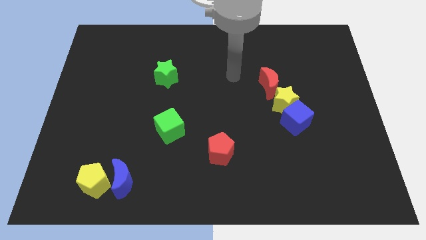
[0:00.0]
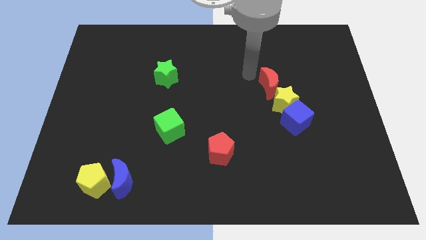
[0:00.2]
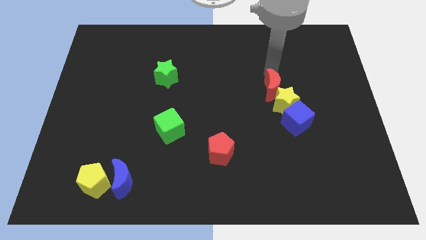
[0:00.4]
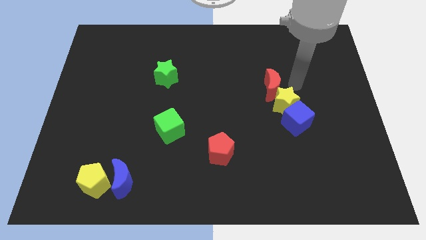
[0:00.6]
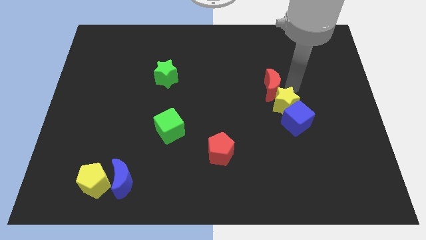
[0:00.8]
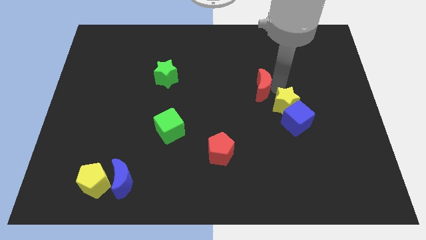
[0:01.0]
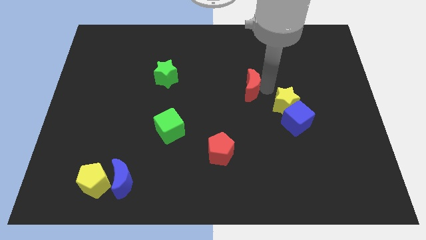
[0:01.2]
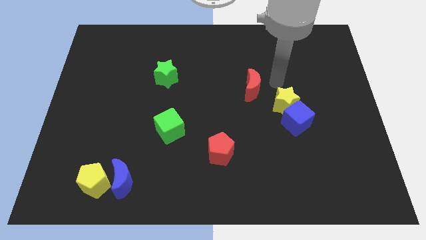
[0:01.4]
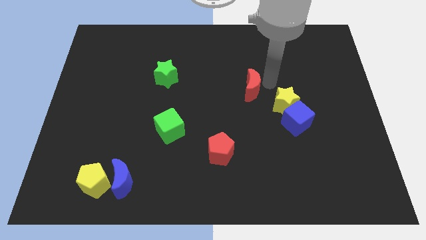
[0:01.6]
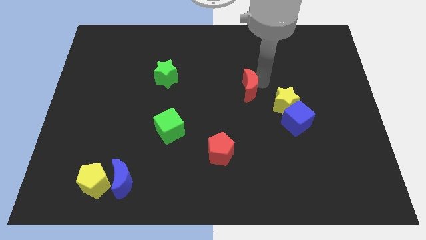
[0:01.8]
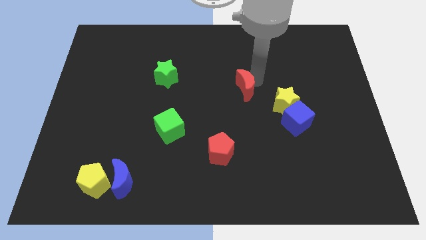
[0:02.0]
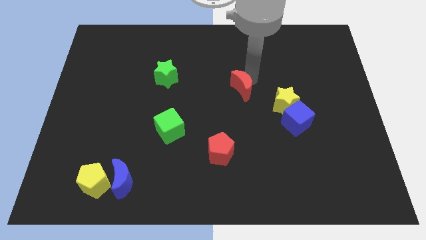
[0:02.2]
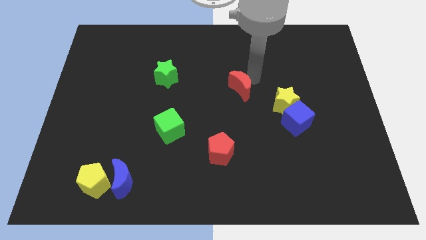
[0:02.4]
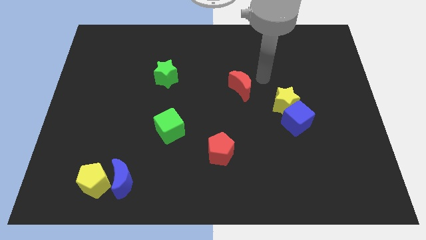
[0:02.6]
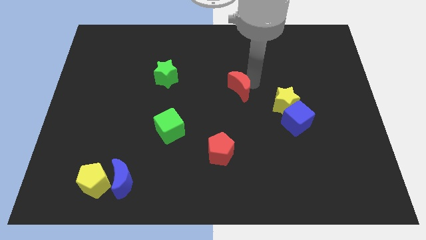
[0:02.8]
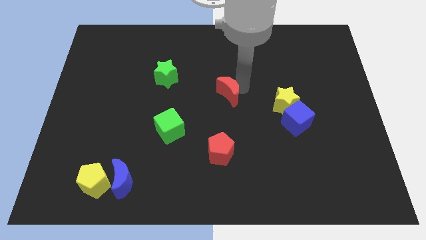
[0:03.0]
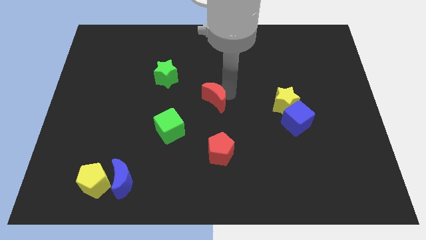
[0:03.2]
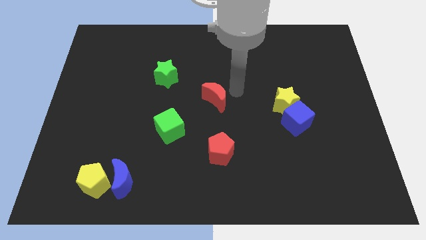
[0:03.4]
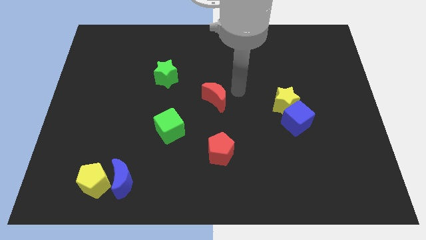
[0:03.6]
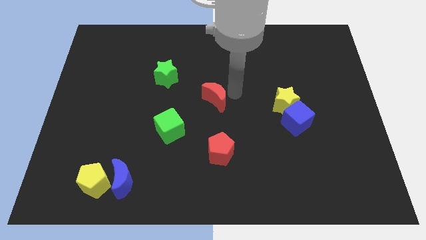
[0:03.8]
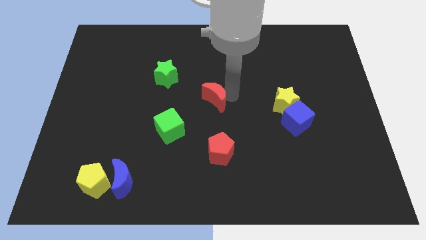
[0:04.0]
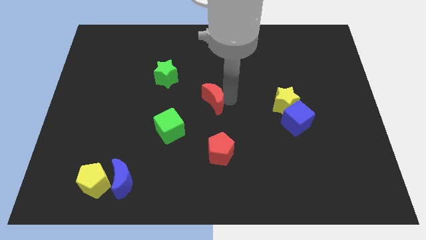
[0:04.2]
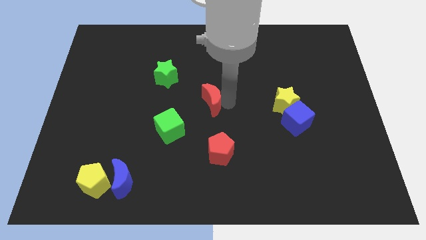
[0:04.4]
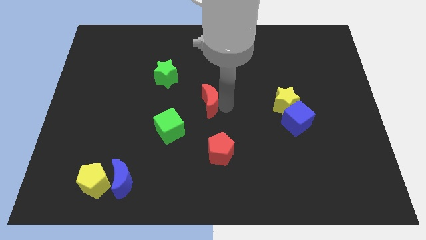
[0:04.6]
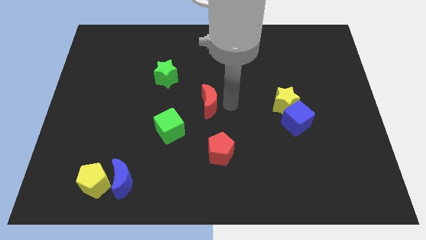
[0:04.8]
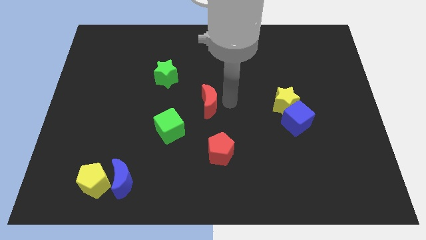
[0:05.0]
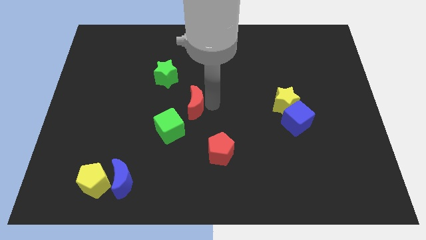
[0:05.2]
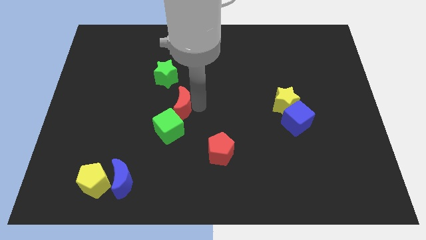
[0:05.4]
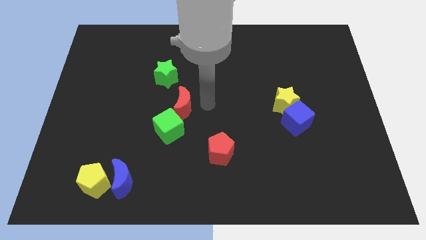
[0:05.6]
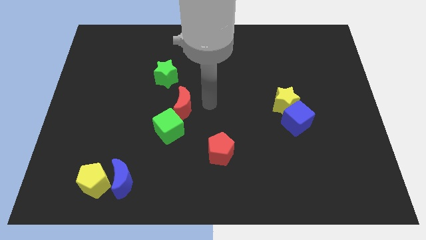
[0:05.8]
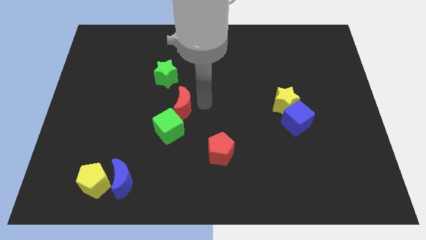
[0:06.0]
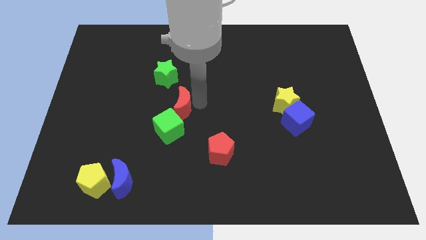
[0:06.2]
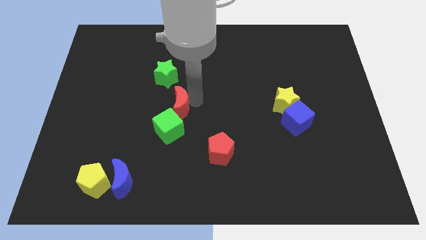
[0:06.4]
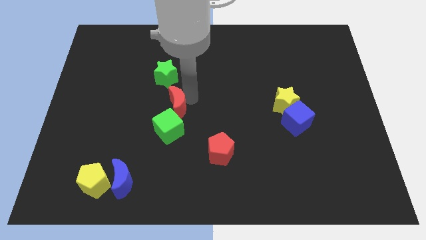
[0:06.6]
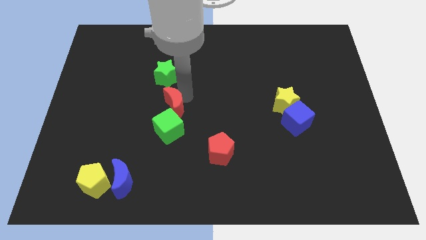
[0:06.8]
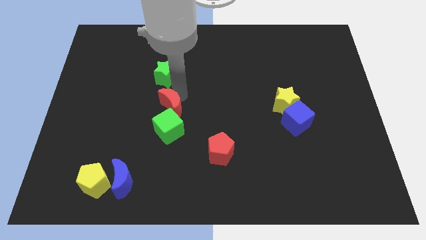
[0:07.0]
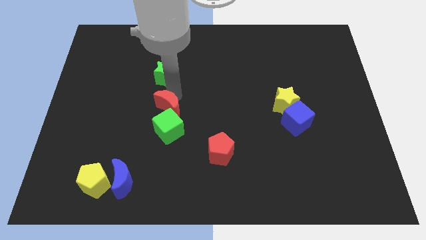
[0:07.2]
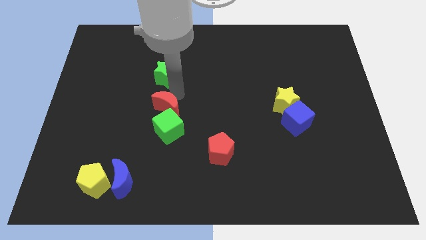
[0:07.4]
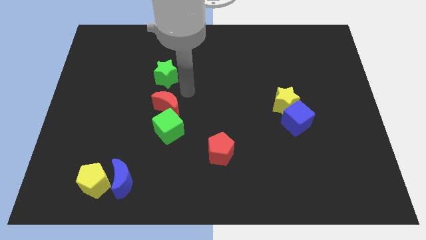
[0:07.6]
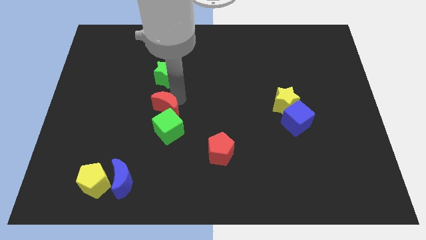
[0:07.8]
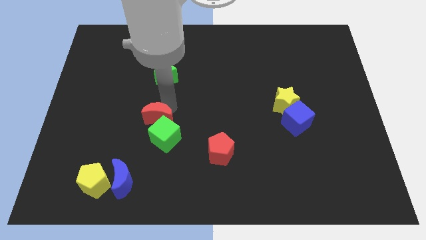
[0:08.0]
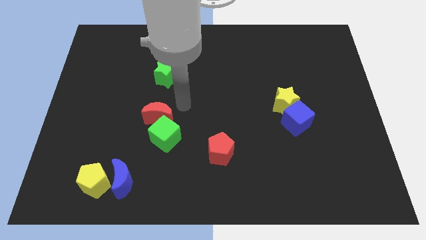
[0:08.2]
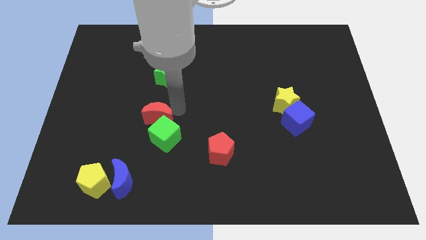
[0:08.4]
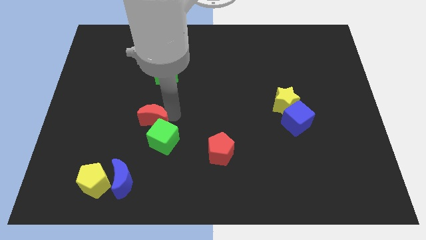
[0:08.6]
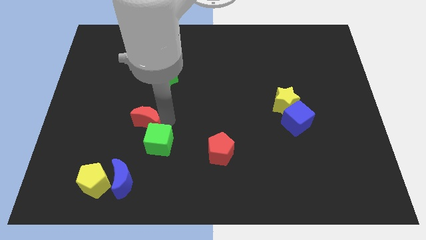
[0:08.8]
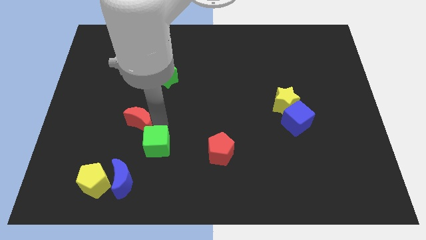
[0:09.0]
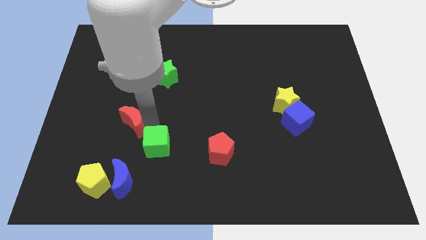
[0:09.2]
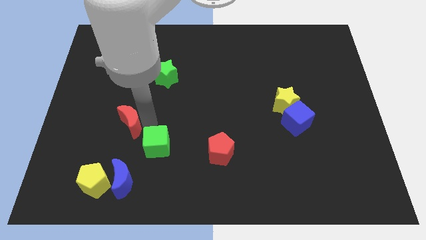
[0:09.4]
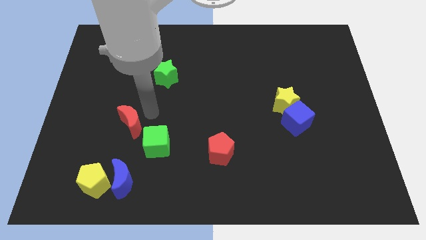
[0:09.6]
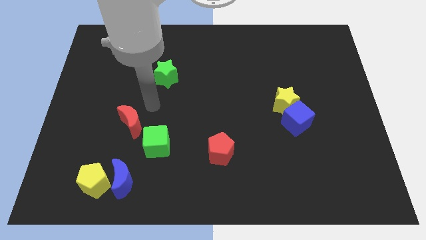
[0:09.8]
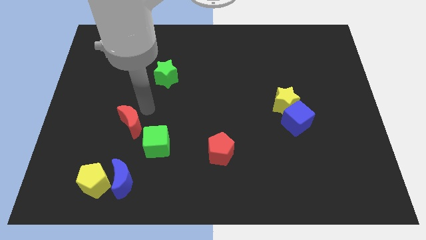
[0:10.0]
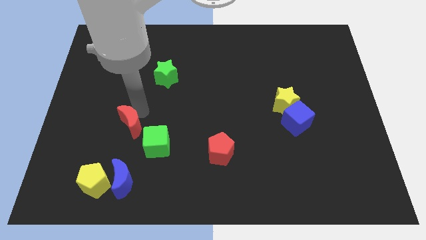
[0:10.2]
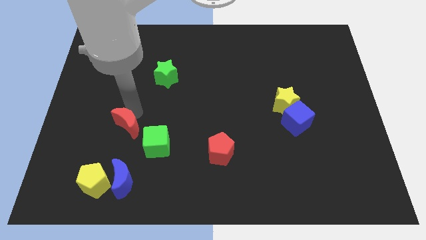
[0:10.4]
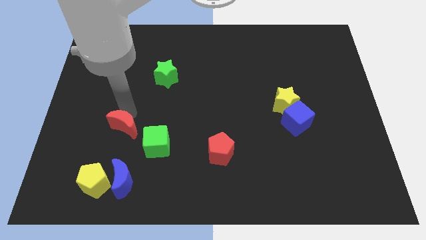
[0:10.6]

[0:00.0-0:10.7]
move the red moon just left of the green cube

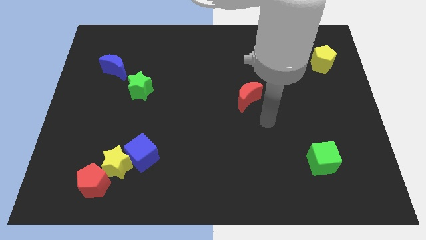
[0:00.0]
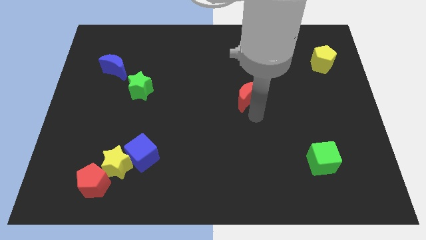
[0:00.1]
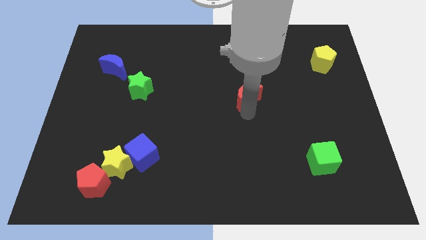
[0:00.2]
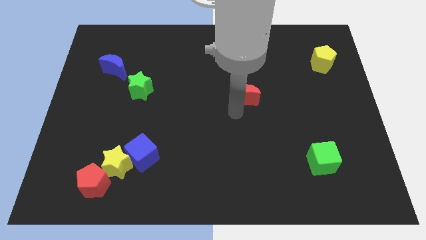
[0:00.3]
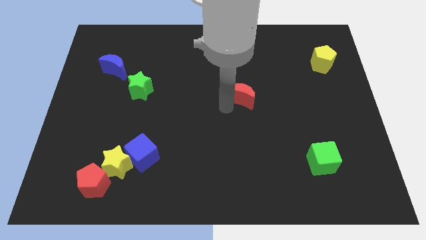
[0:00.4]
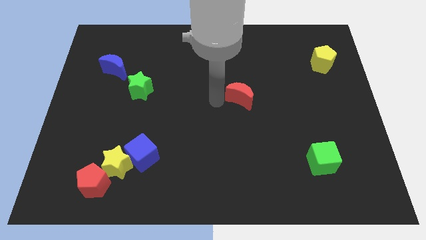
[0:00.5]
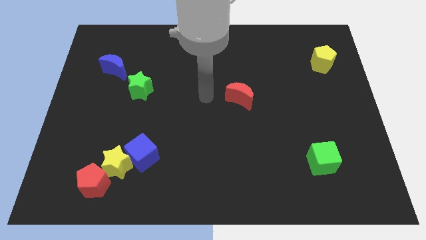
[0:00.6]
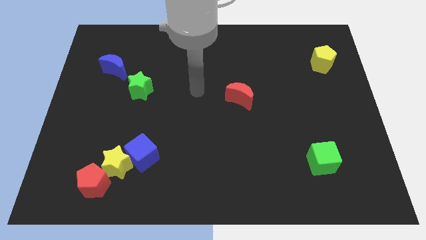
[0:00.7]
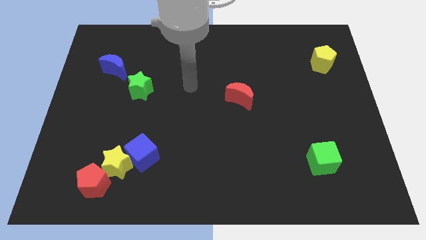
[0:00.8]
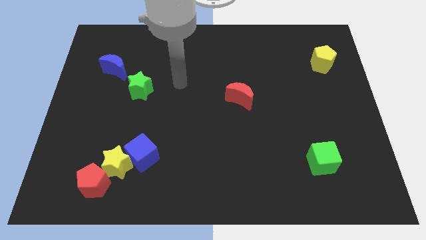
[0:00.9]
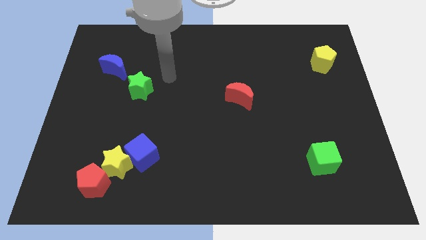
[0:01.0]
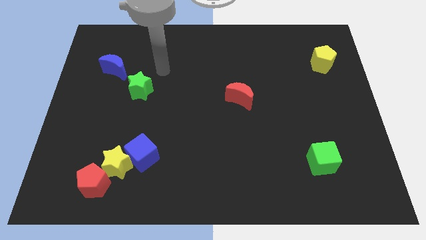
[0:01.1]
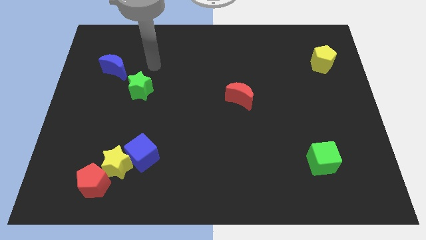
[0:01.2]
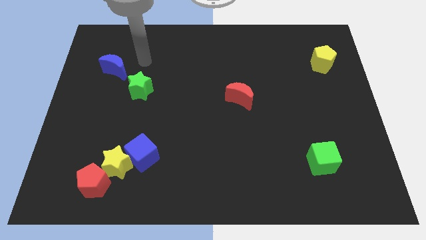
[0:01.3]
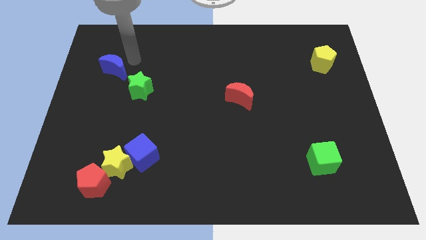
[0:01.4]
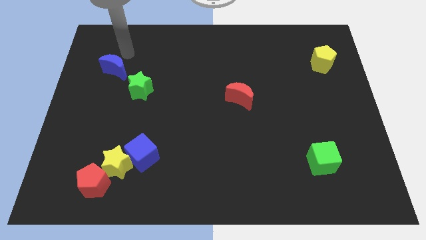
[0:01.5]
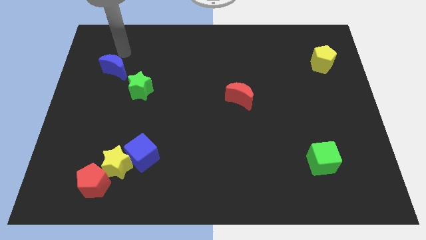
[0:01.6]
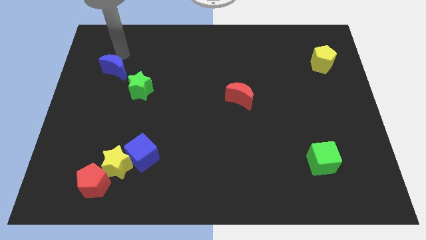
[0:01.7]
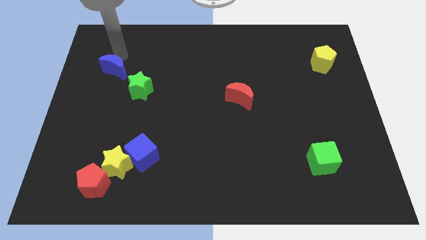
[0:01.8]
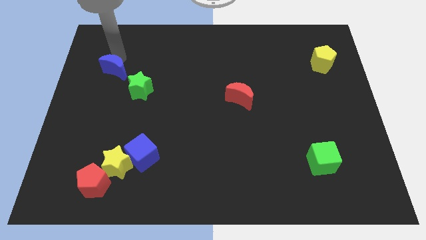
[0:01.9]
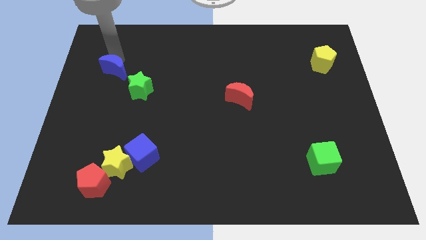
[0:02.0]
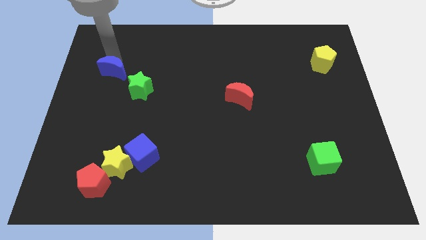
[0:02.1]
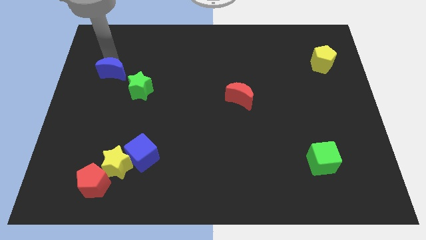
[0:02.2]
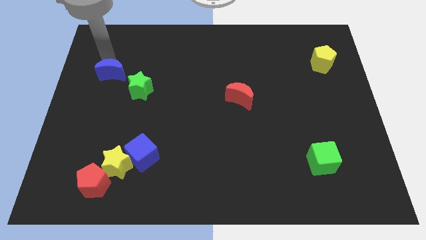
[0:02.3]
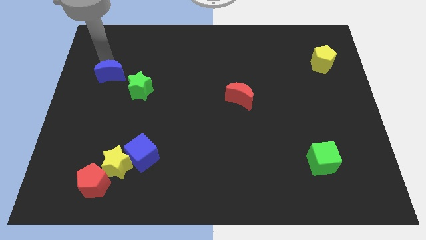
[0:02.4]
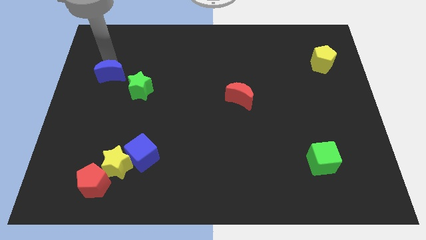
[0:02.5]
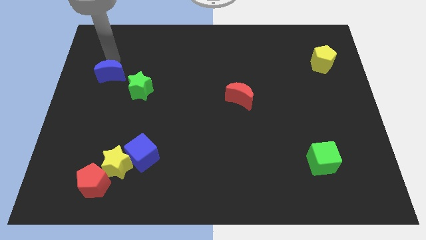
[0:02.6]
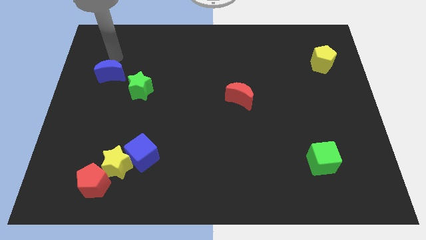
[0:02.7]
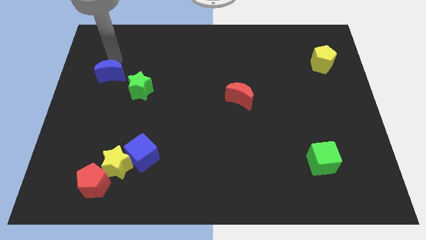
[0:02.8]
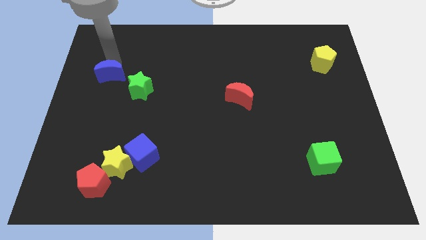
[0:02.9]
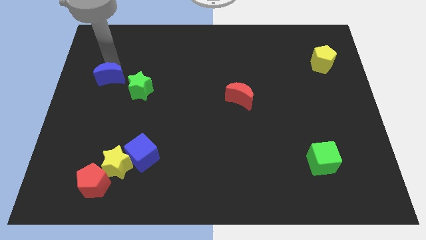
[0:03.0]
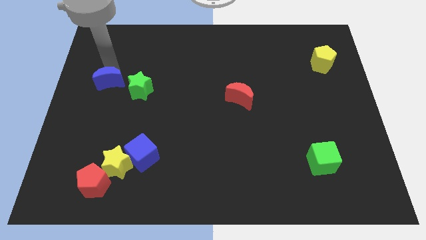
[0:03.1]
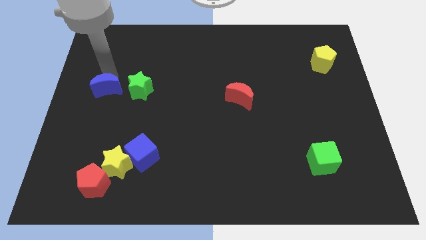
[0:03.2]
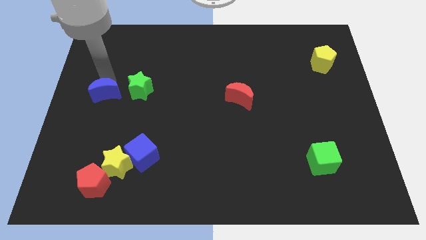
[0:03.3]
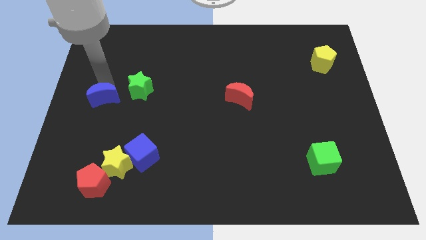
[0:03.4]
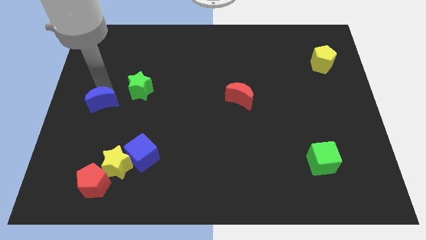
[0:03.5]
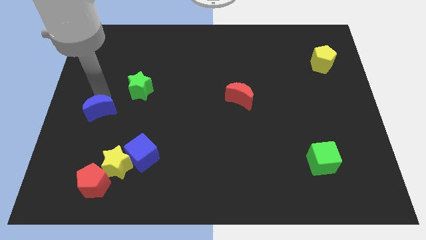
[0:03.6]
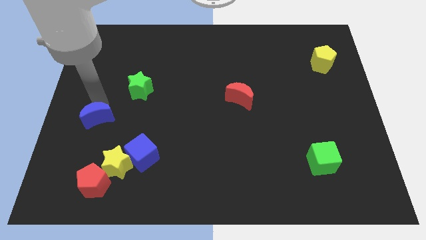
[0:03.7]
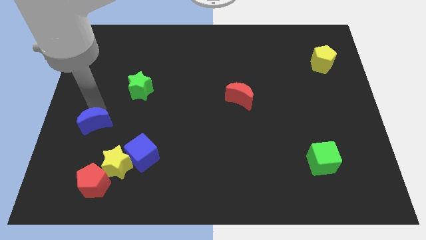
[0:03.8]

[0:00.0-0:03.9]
move the blue moon above the red pentagon
